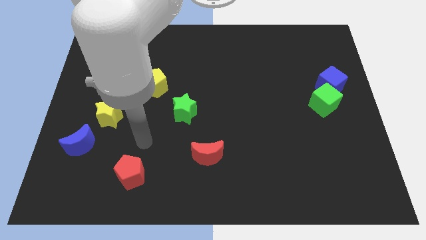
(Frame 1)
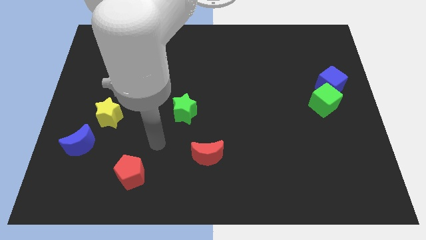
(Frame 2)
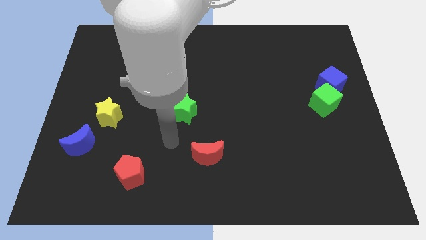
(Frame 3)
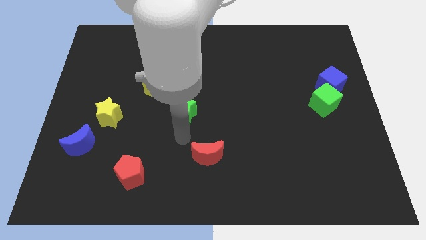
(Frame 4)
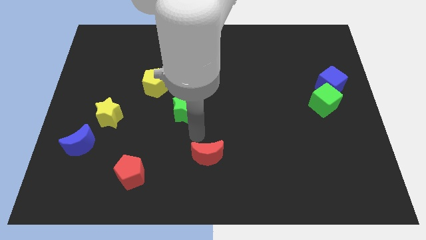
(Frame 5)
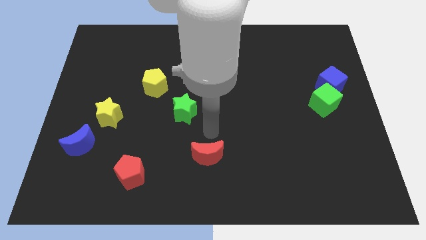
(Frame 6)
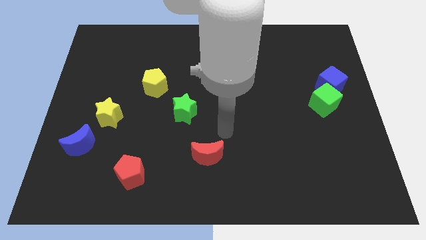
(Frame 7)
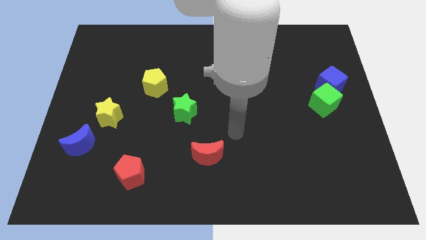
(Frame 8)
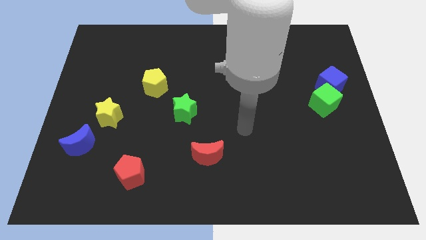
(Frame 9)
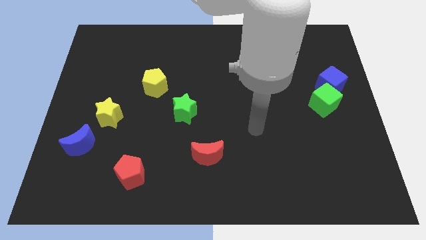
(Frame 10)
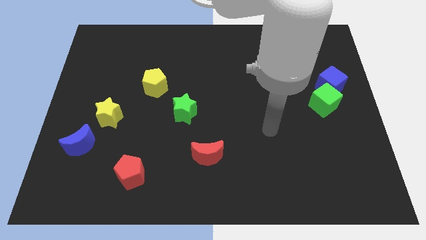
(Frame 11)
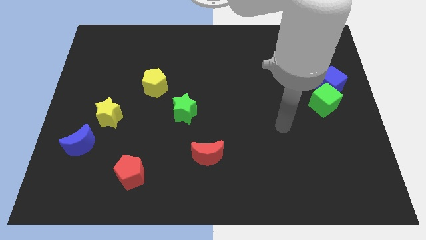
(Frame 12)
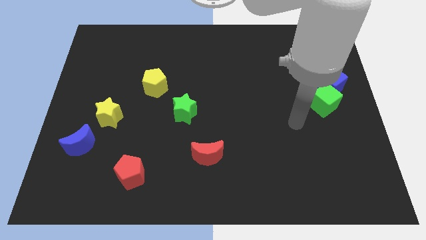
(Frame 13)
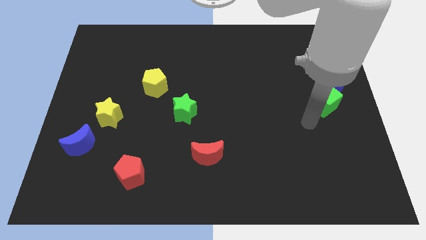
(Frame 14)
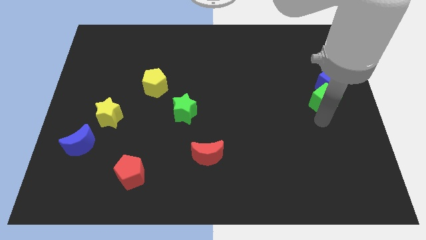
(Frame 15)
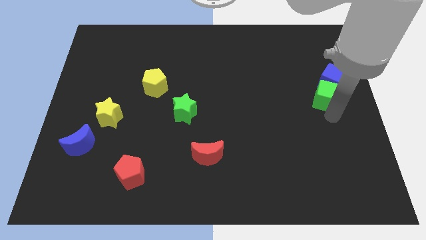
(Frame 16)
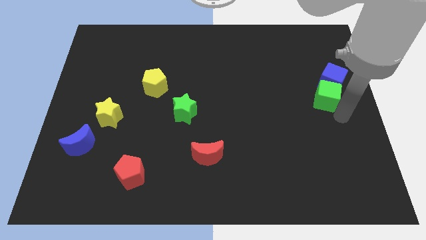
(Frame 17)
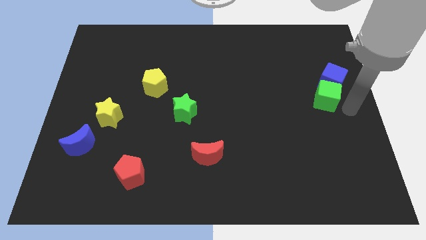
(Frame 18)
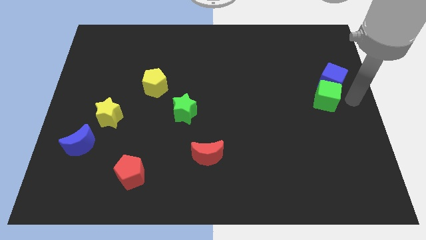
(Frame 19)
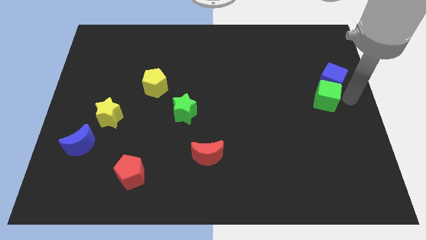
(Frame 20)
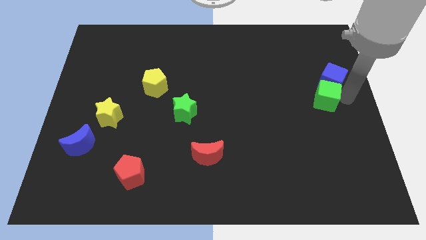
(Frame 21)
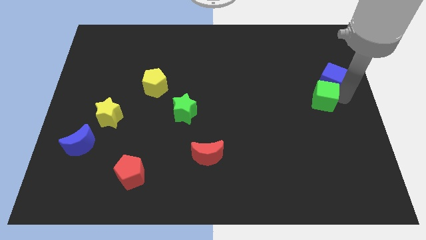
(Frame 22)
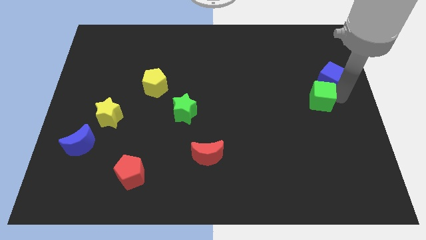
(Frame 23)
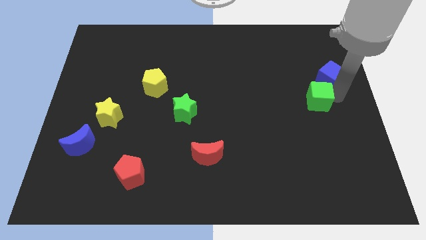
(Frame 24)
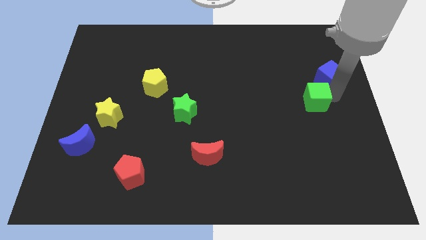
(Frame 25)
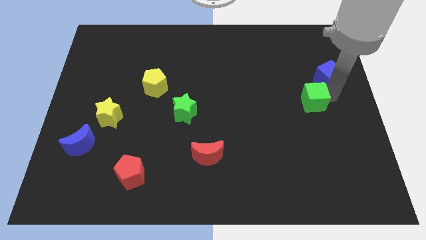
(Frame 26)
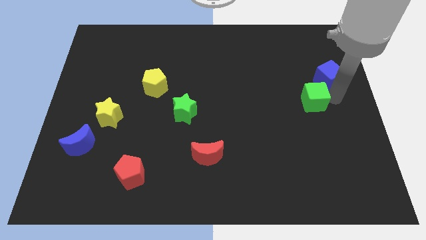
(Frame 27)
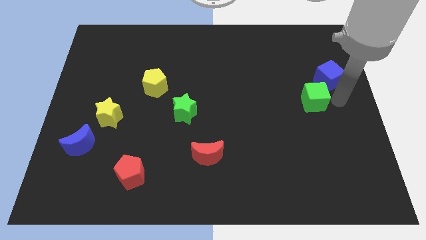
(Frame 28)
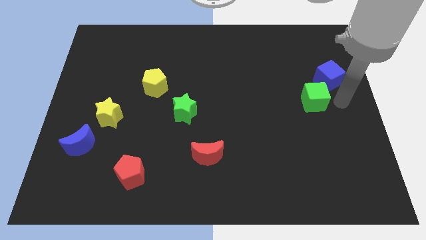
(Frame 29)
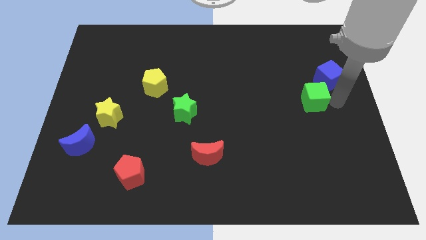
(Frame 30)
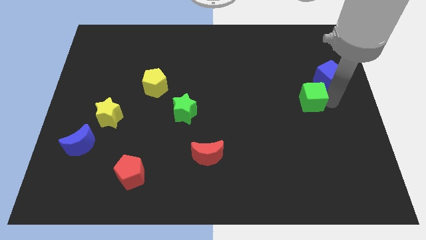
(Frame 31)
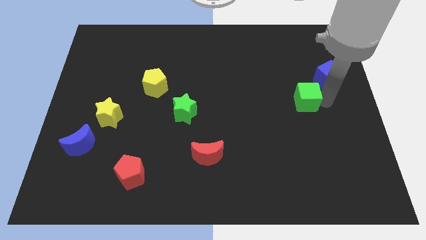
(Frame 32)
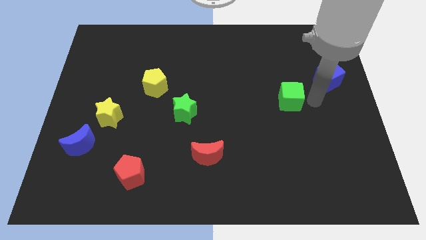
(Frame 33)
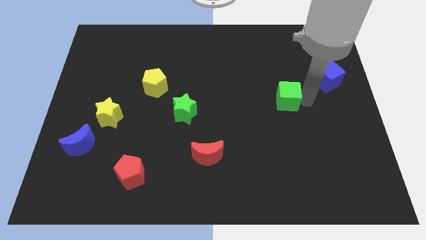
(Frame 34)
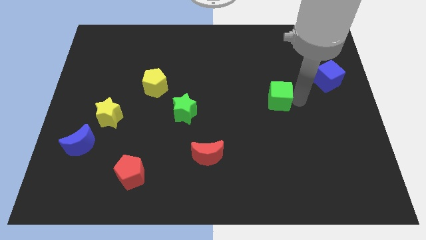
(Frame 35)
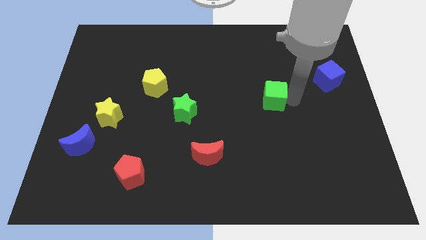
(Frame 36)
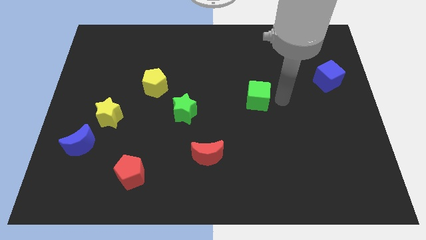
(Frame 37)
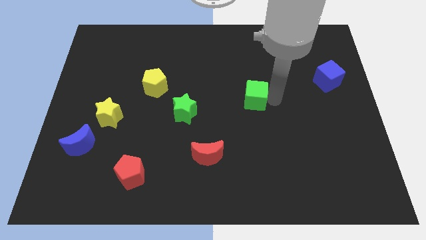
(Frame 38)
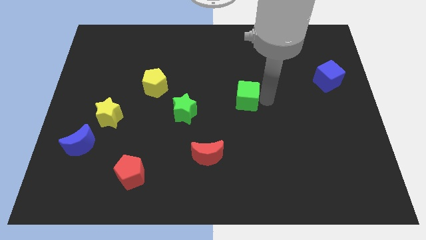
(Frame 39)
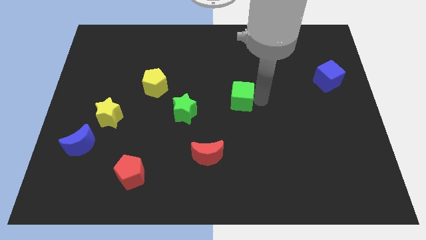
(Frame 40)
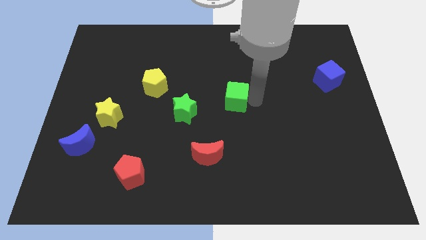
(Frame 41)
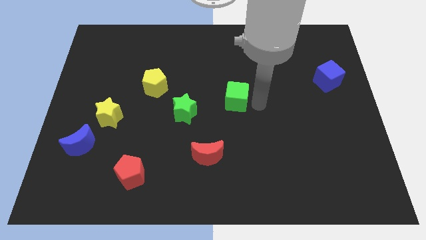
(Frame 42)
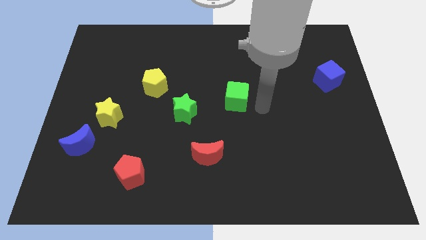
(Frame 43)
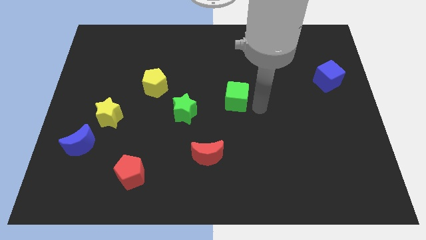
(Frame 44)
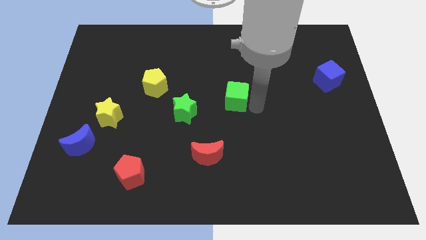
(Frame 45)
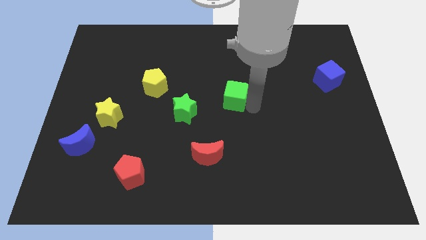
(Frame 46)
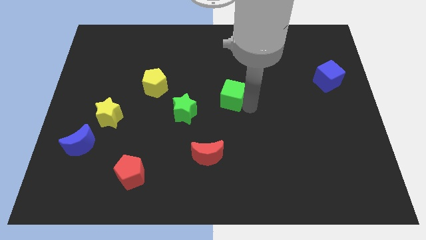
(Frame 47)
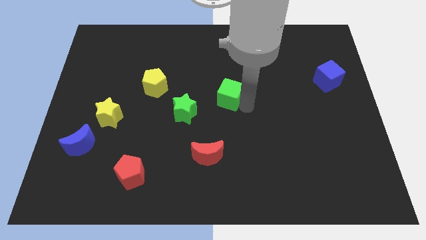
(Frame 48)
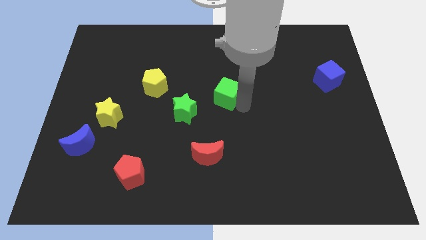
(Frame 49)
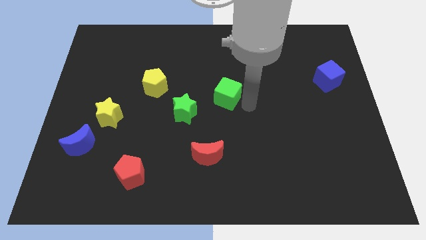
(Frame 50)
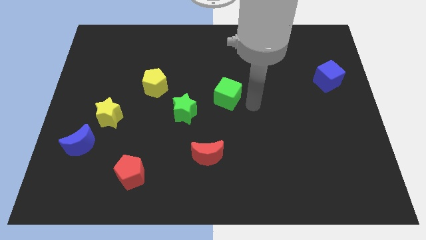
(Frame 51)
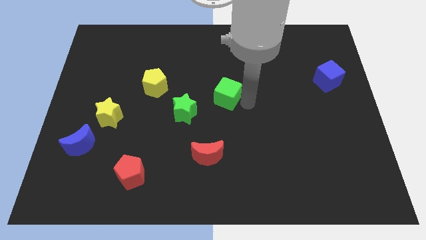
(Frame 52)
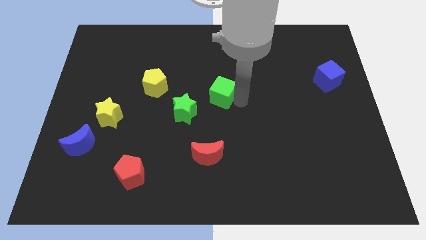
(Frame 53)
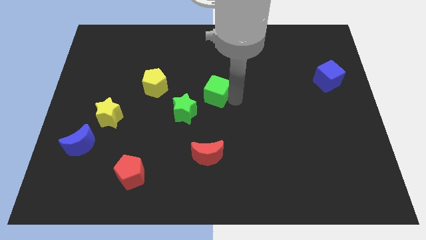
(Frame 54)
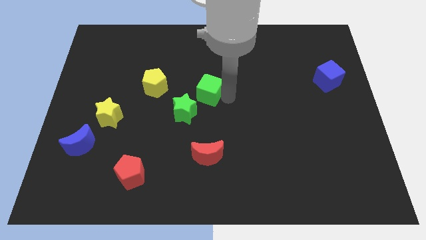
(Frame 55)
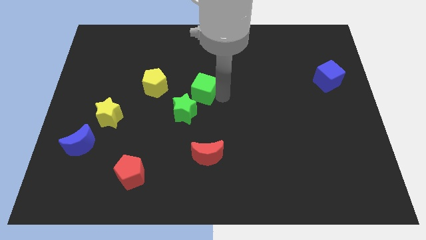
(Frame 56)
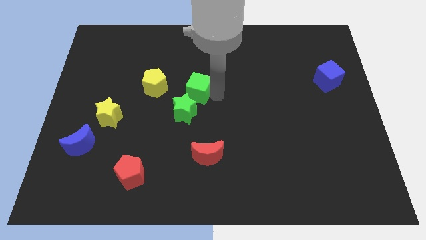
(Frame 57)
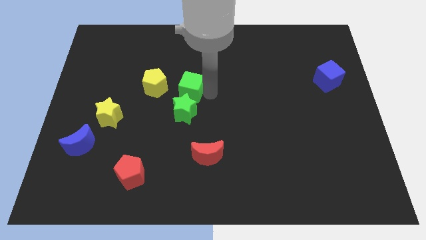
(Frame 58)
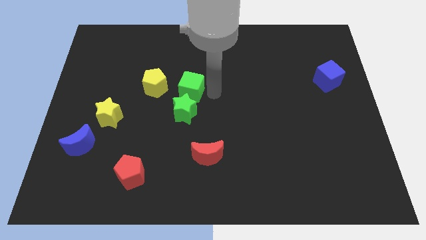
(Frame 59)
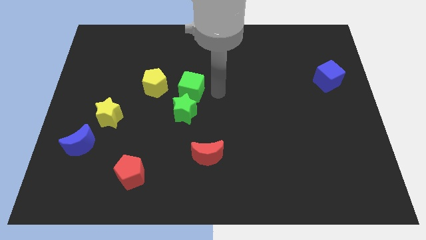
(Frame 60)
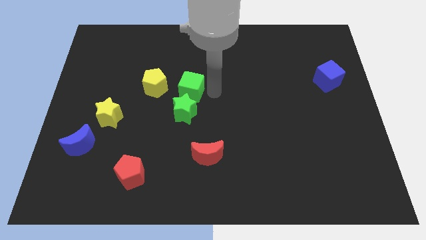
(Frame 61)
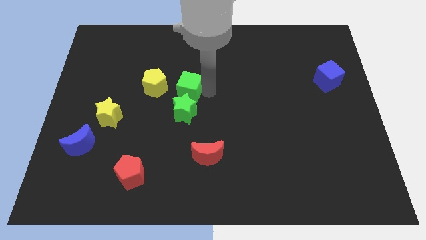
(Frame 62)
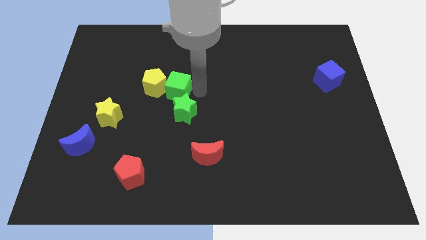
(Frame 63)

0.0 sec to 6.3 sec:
put the green cube next to the yellow pentagon

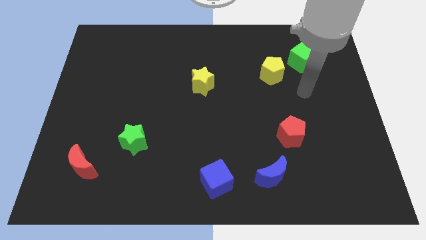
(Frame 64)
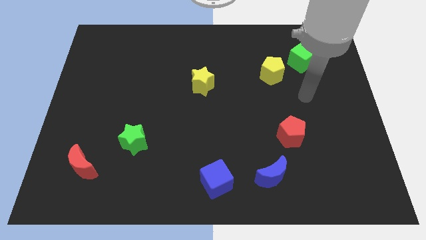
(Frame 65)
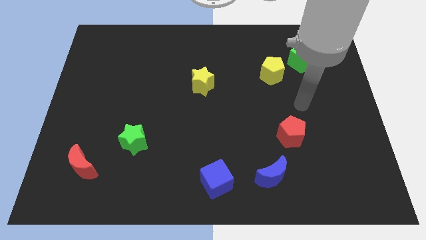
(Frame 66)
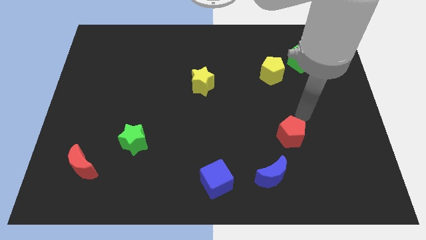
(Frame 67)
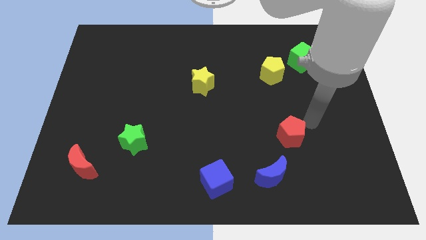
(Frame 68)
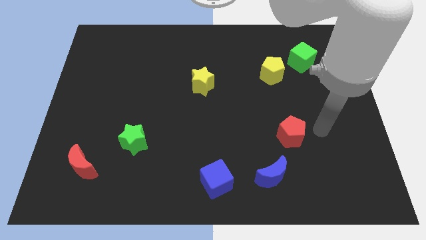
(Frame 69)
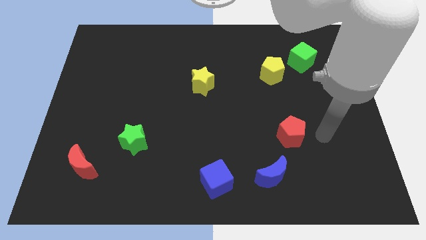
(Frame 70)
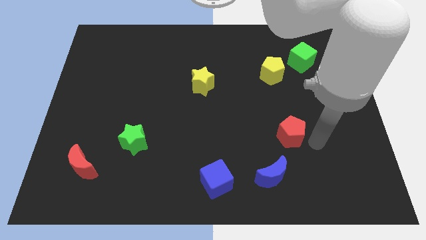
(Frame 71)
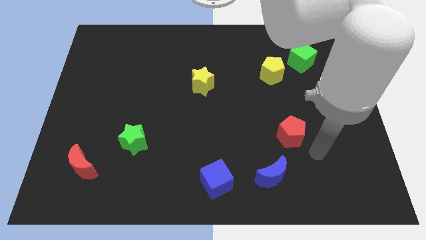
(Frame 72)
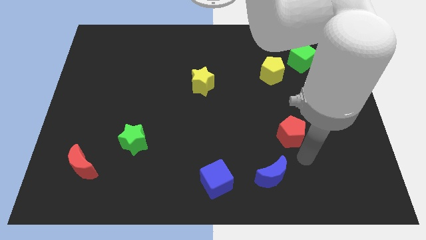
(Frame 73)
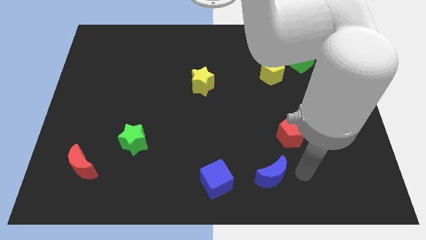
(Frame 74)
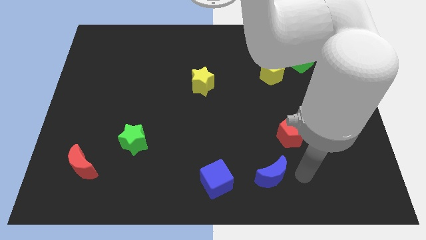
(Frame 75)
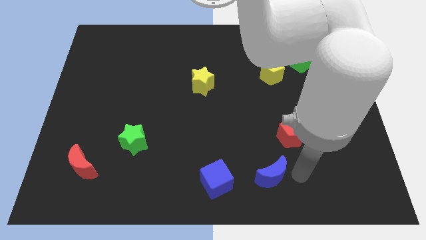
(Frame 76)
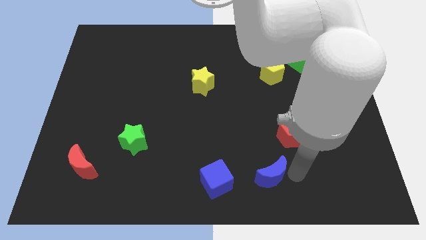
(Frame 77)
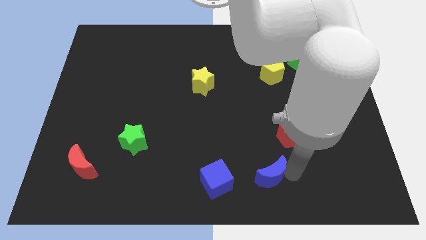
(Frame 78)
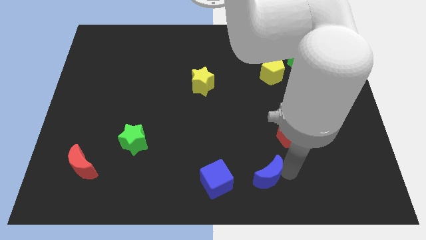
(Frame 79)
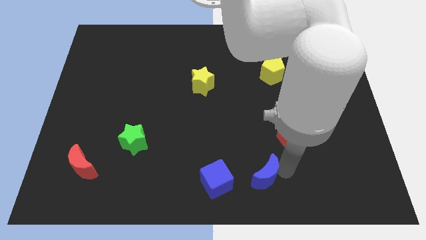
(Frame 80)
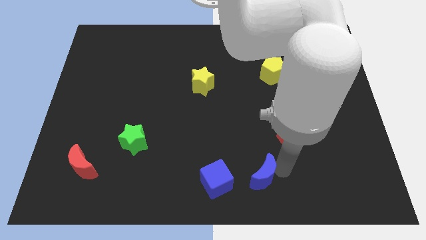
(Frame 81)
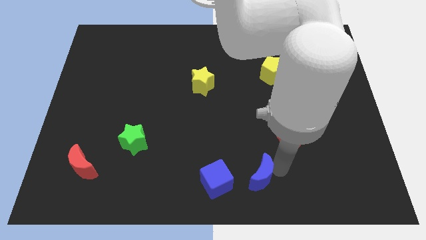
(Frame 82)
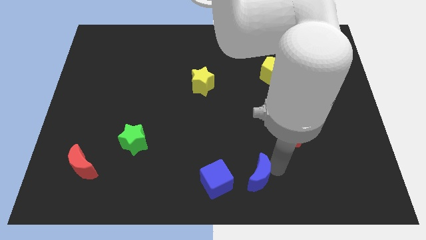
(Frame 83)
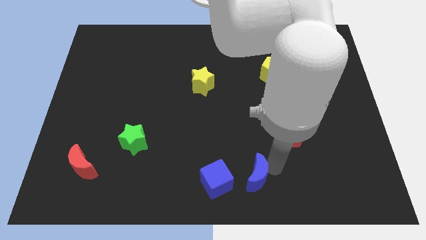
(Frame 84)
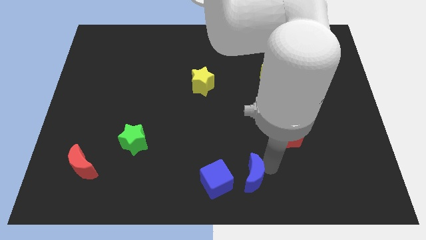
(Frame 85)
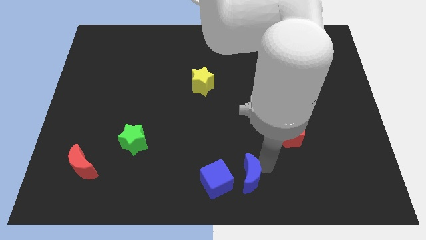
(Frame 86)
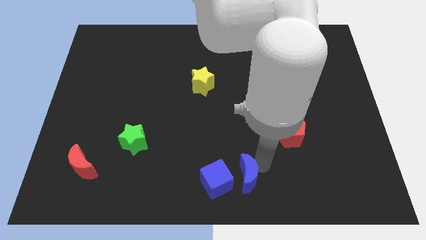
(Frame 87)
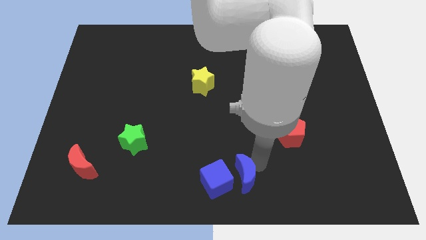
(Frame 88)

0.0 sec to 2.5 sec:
push the blue moon close to the blue cube
